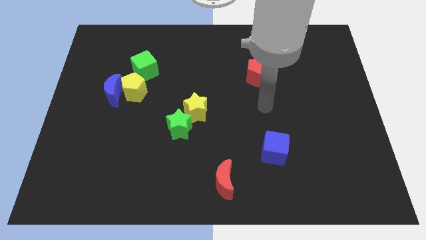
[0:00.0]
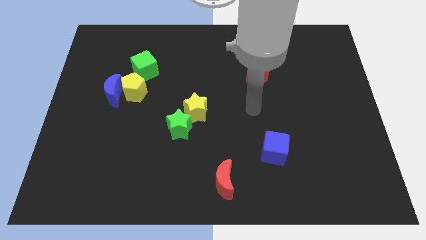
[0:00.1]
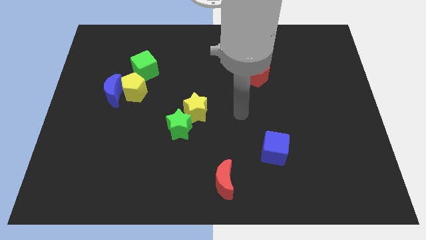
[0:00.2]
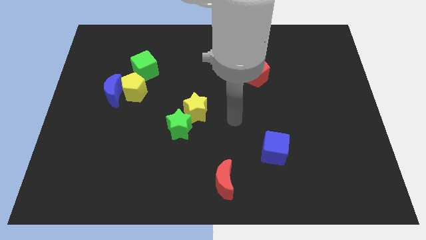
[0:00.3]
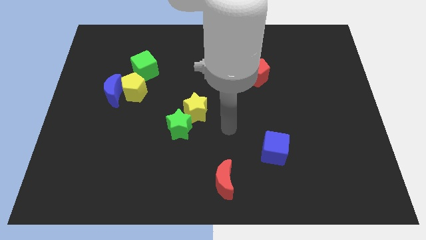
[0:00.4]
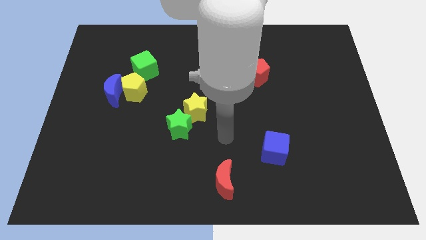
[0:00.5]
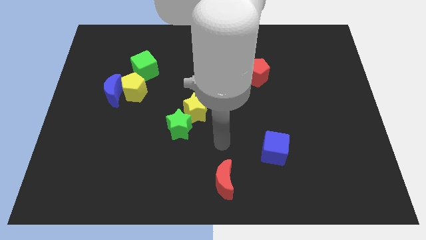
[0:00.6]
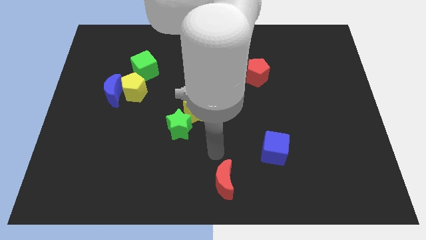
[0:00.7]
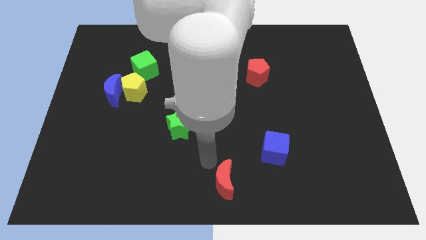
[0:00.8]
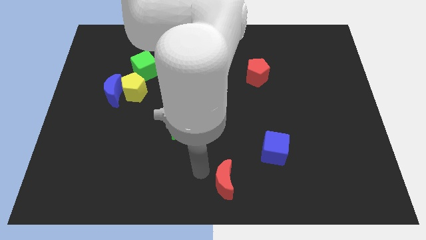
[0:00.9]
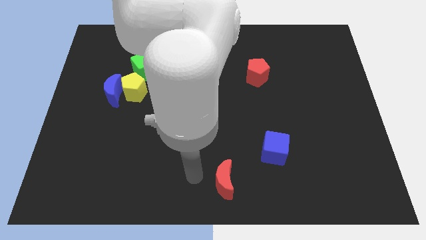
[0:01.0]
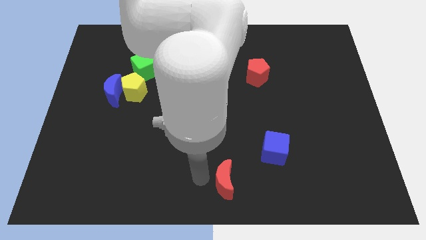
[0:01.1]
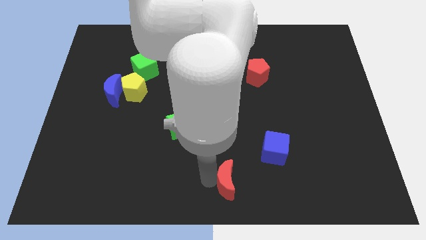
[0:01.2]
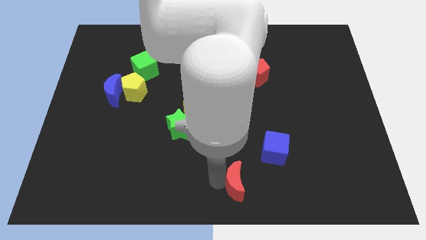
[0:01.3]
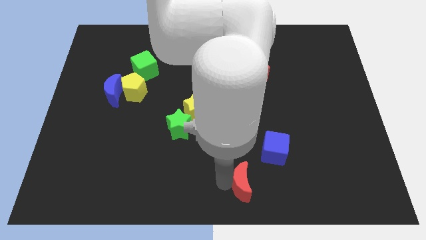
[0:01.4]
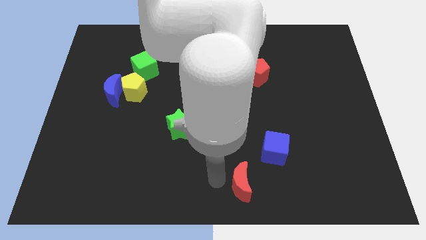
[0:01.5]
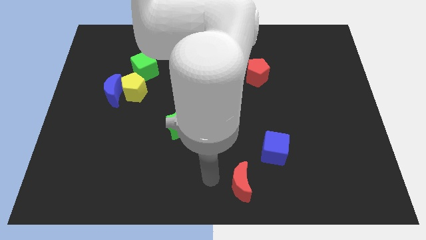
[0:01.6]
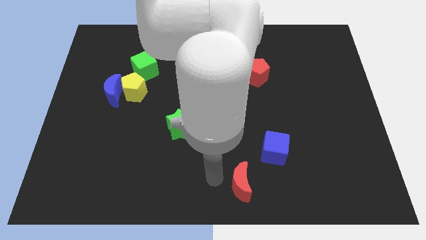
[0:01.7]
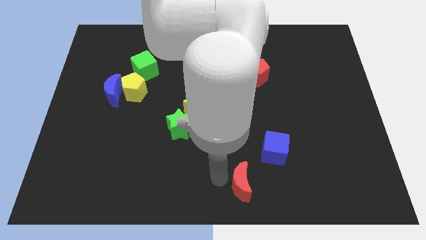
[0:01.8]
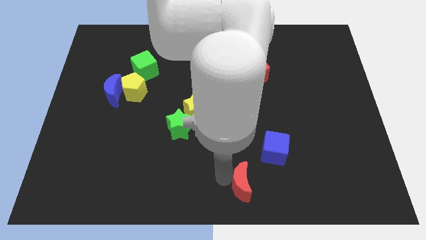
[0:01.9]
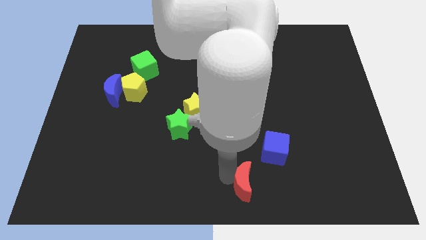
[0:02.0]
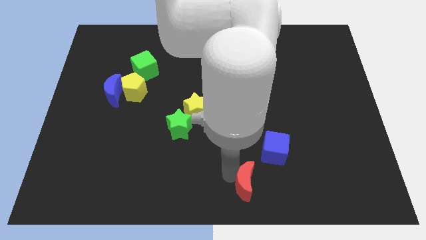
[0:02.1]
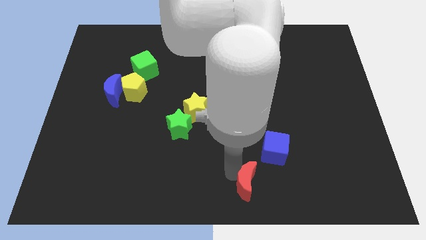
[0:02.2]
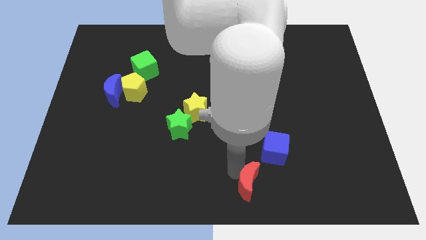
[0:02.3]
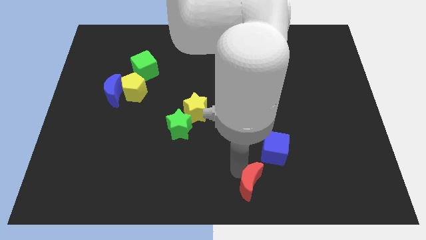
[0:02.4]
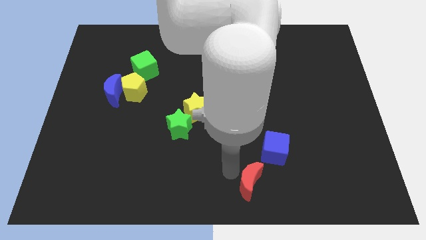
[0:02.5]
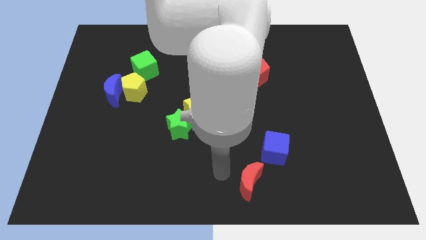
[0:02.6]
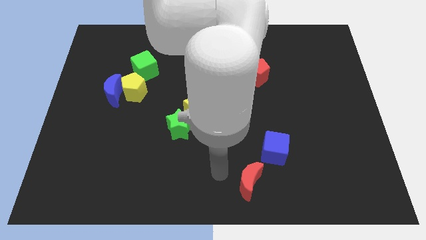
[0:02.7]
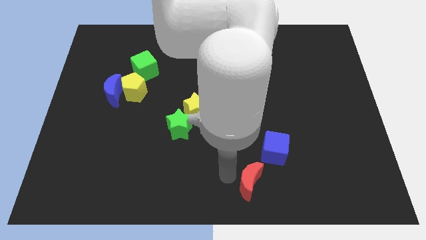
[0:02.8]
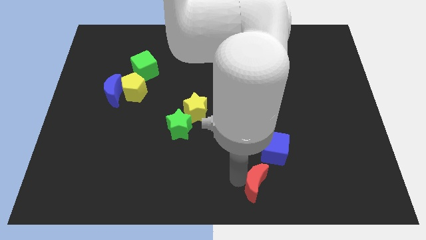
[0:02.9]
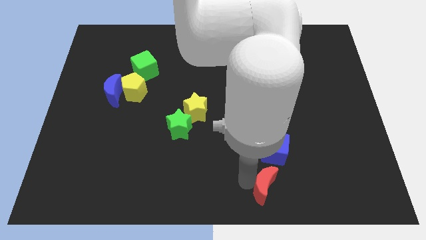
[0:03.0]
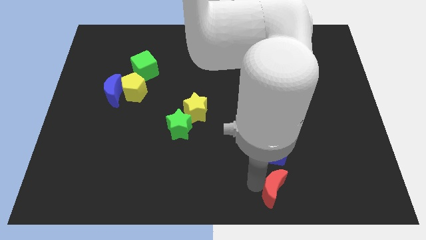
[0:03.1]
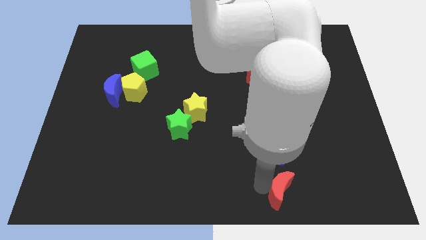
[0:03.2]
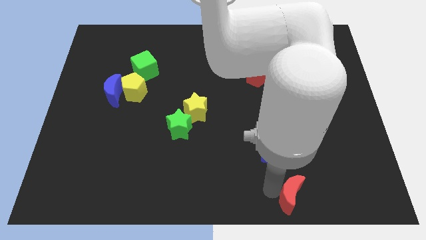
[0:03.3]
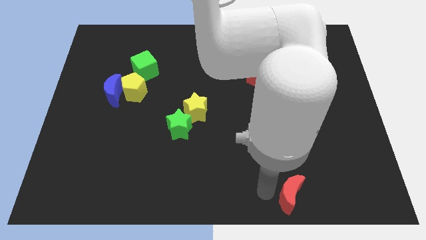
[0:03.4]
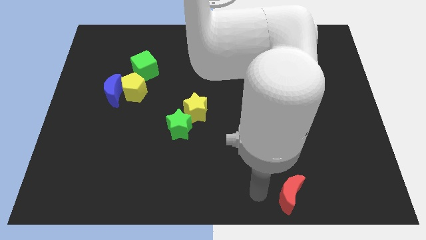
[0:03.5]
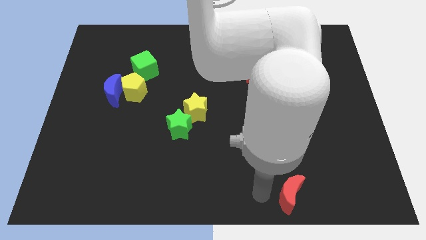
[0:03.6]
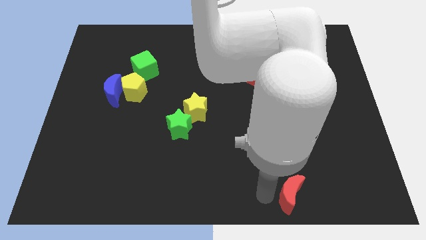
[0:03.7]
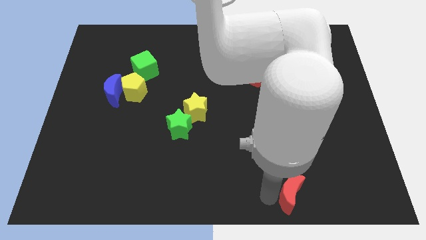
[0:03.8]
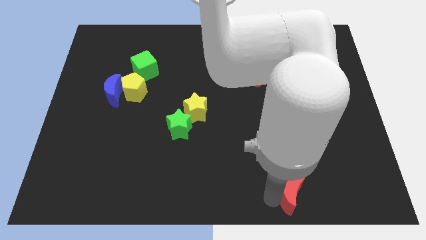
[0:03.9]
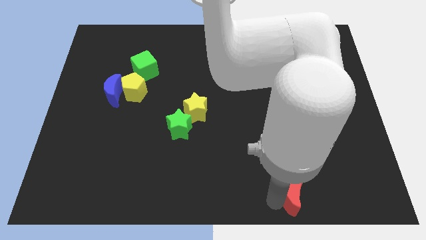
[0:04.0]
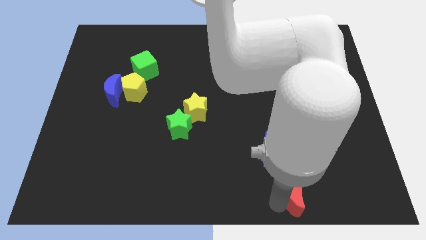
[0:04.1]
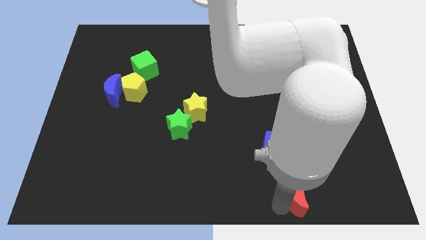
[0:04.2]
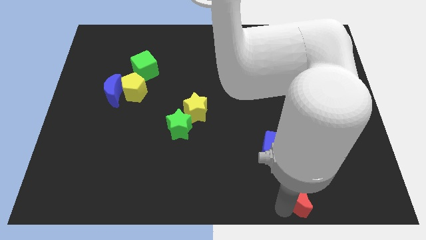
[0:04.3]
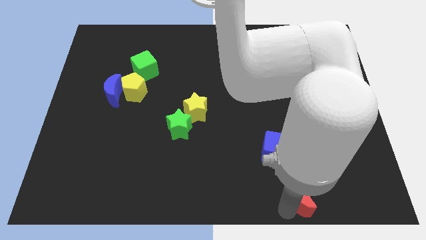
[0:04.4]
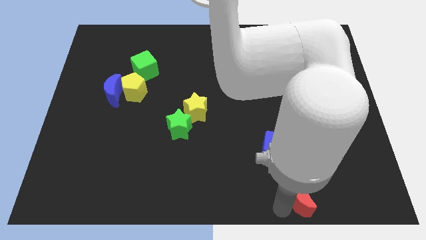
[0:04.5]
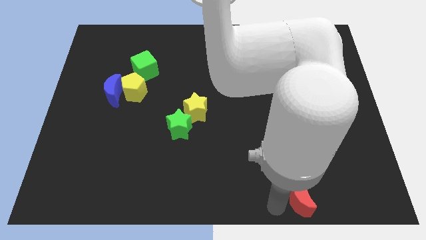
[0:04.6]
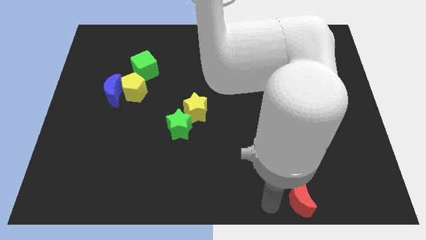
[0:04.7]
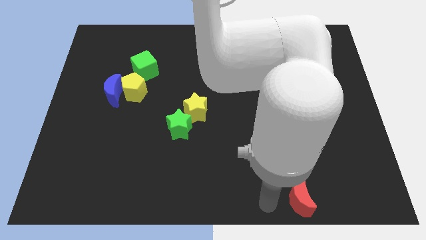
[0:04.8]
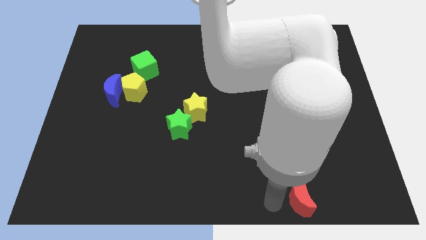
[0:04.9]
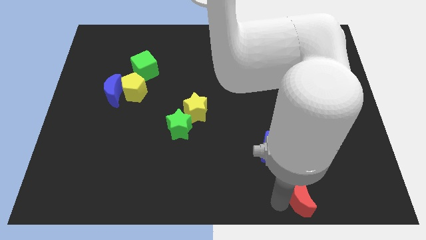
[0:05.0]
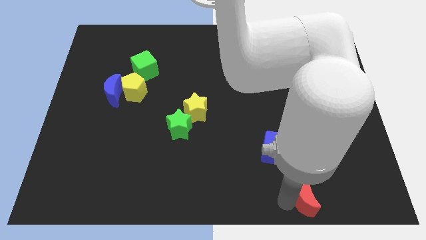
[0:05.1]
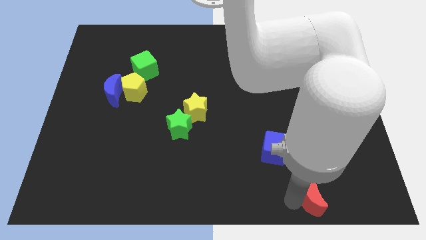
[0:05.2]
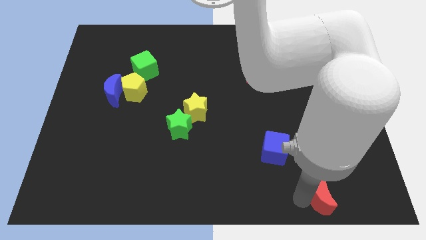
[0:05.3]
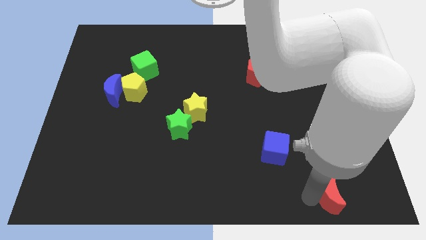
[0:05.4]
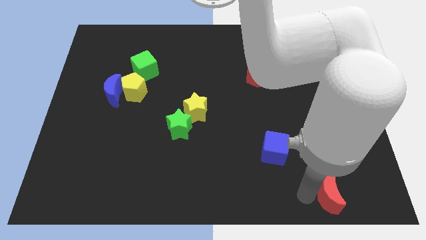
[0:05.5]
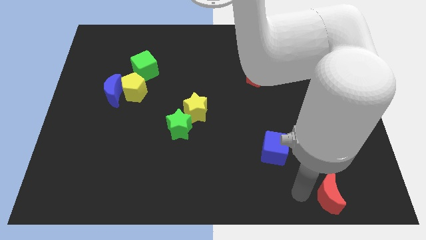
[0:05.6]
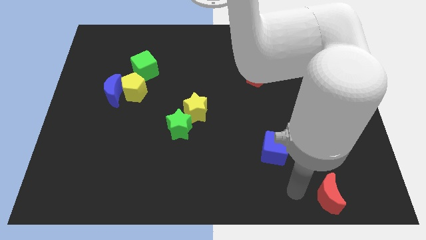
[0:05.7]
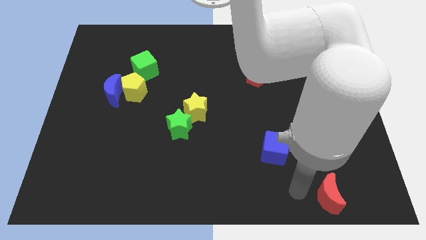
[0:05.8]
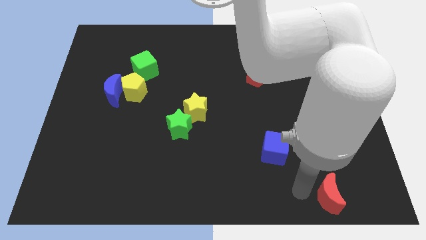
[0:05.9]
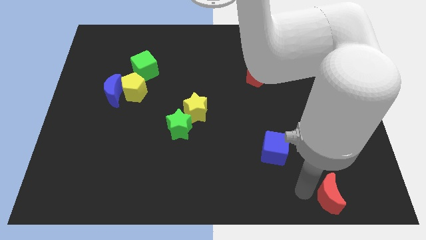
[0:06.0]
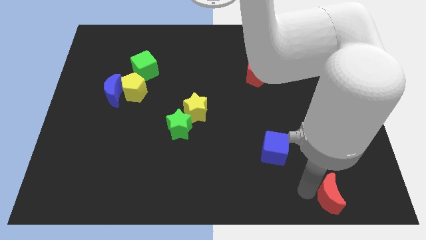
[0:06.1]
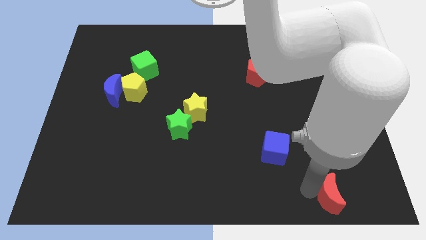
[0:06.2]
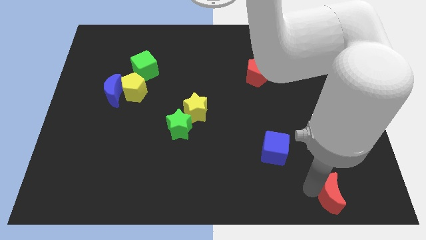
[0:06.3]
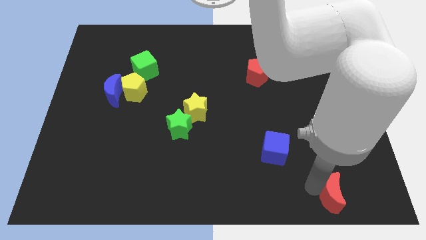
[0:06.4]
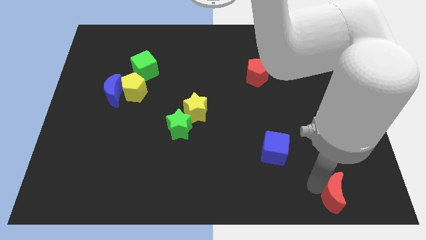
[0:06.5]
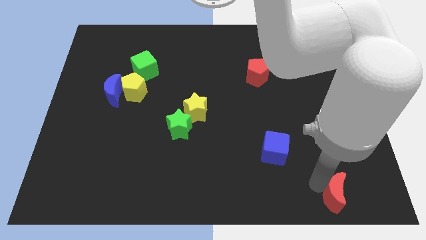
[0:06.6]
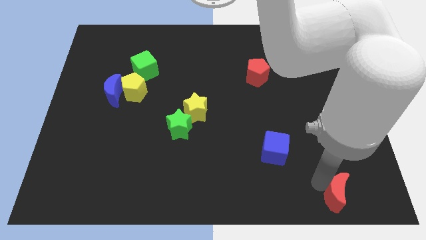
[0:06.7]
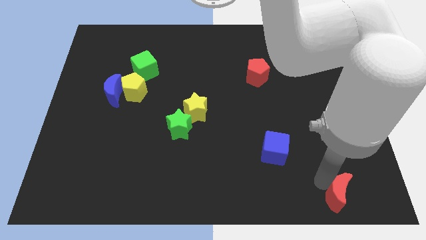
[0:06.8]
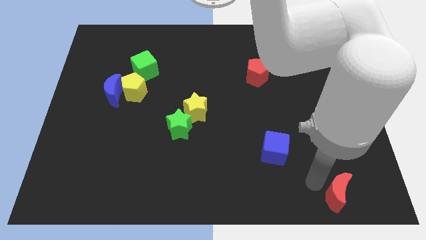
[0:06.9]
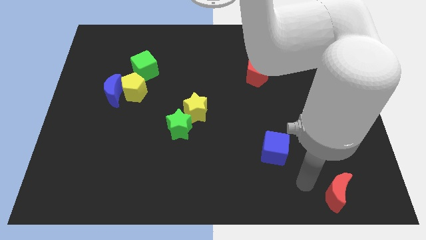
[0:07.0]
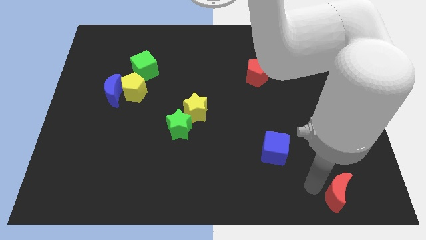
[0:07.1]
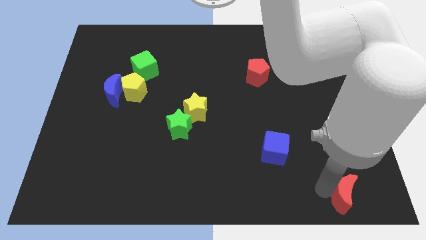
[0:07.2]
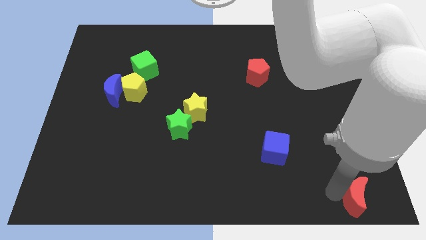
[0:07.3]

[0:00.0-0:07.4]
put the red moon to the bottom right of the board
